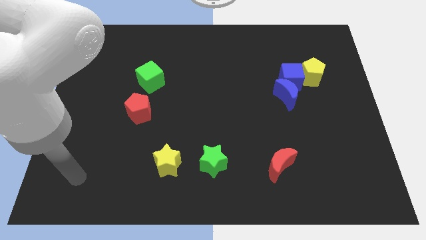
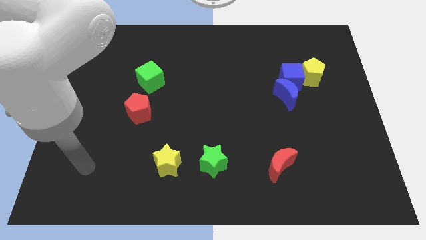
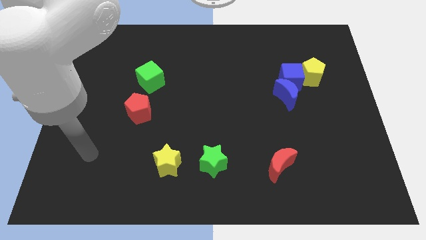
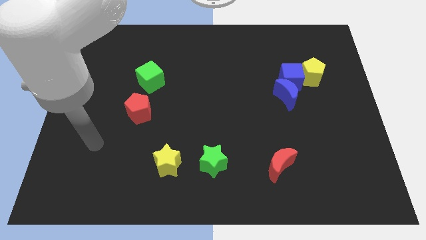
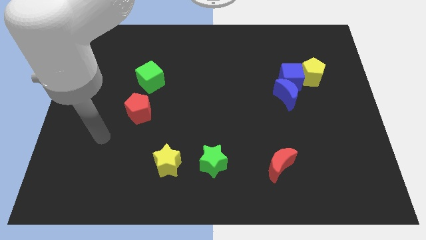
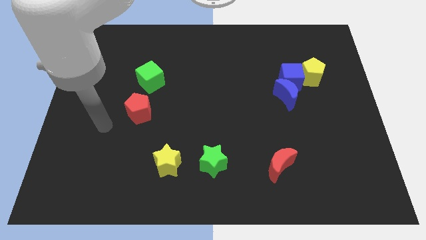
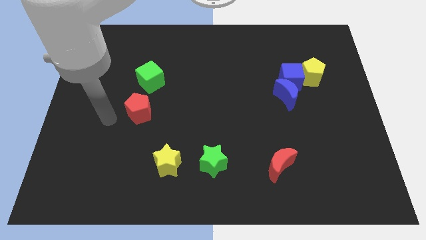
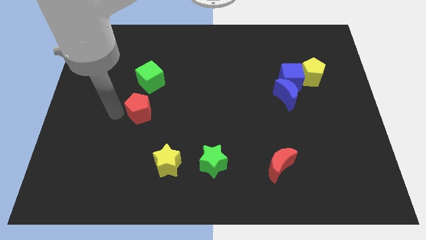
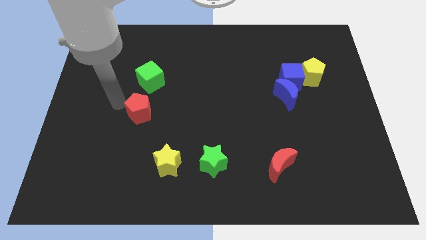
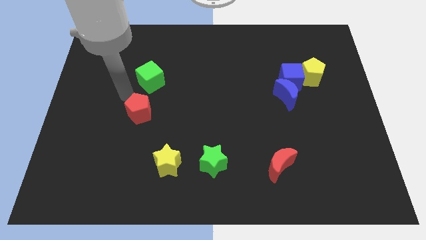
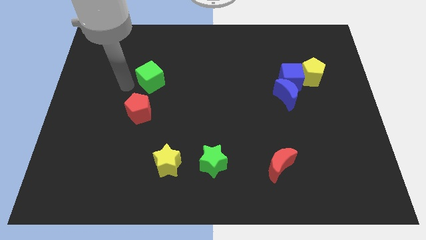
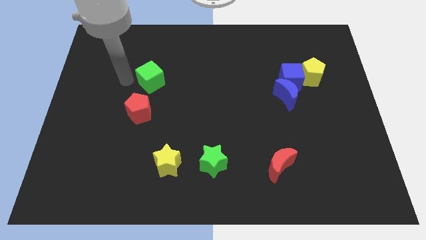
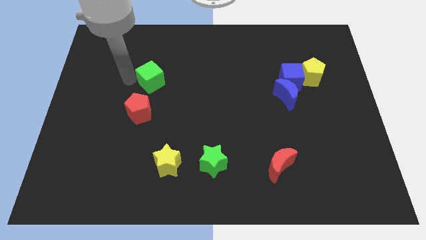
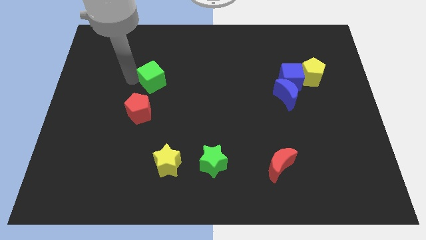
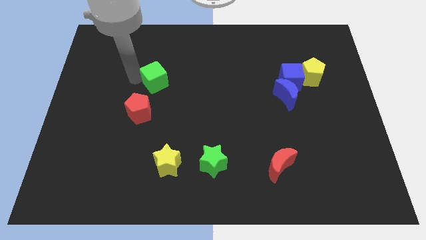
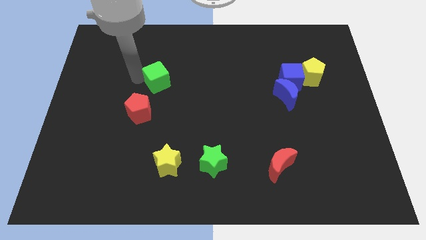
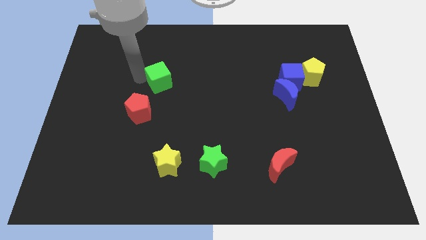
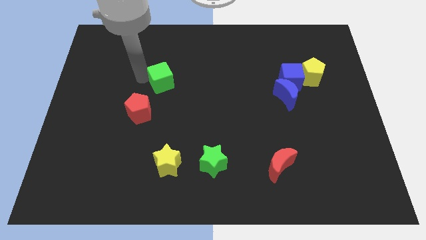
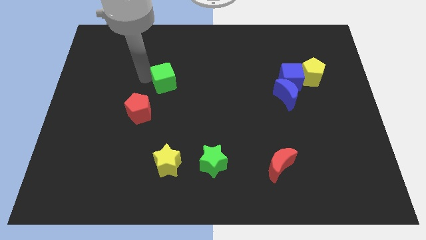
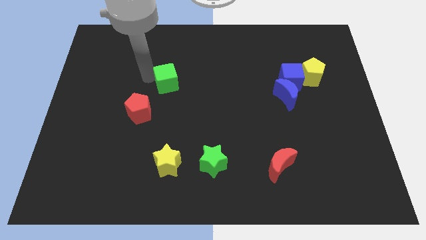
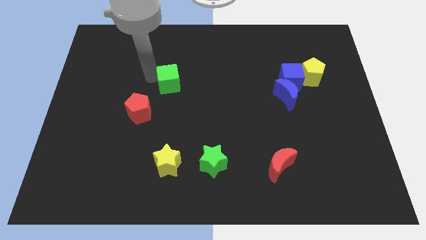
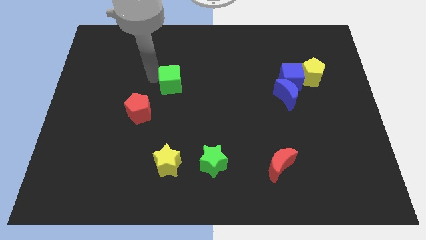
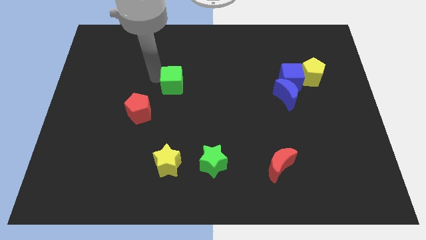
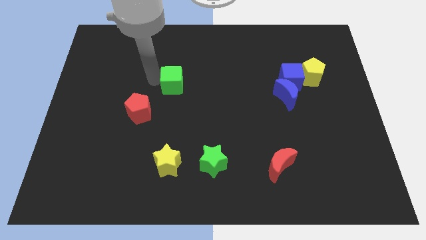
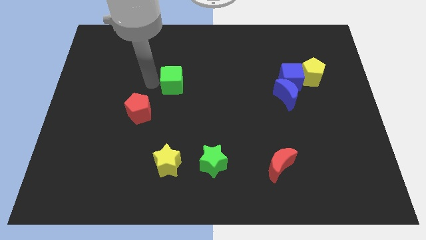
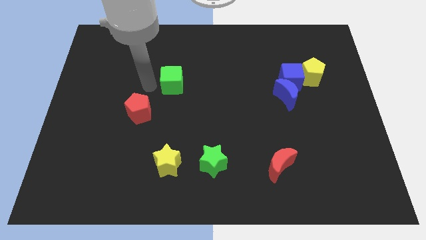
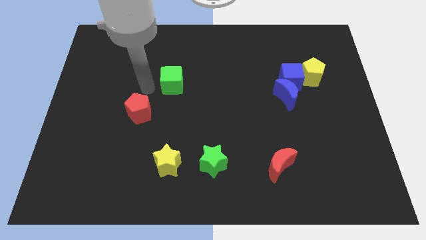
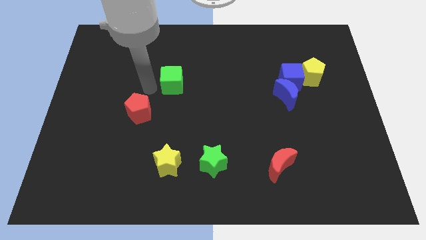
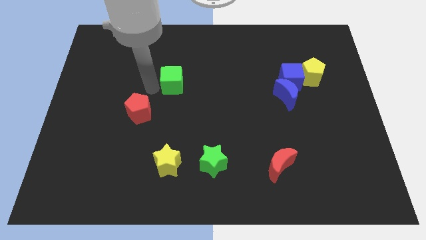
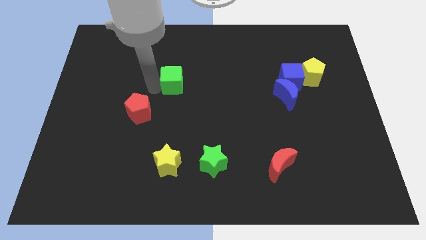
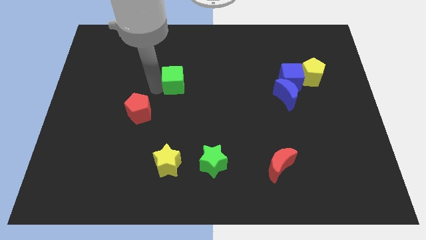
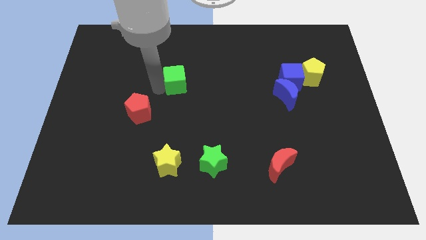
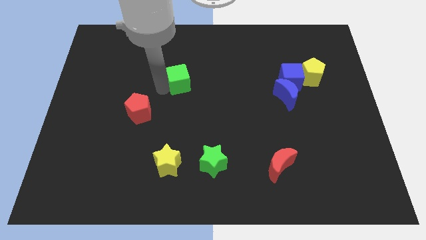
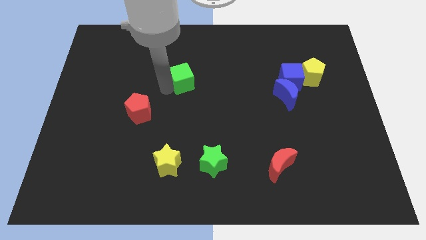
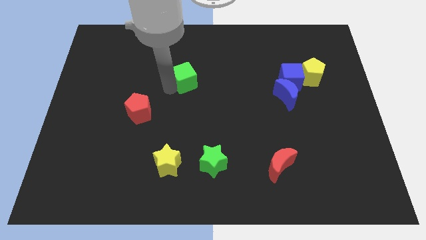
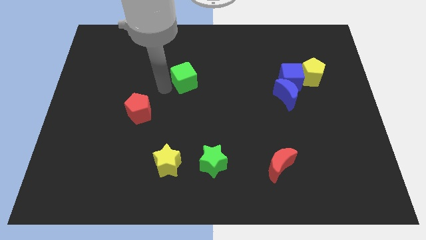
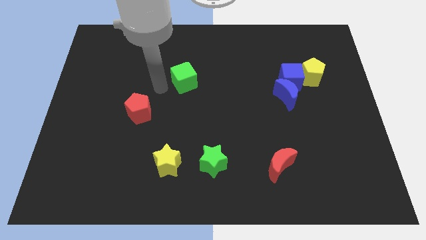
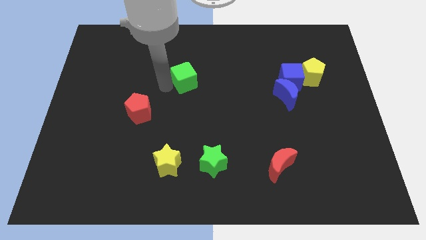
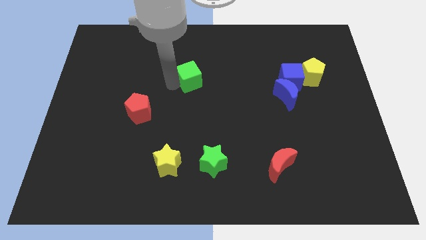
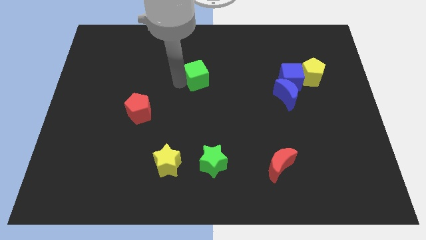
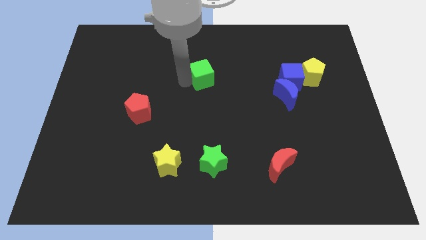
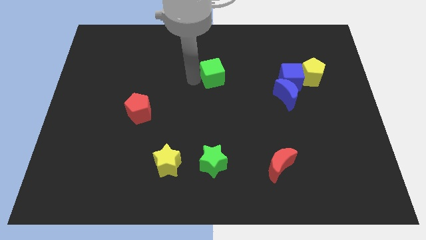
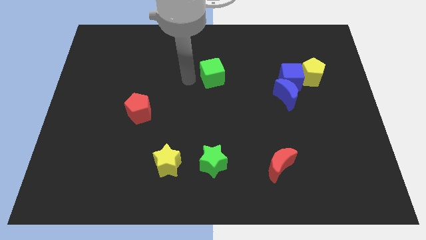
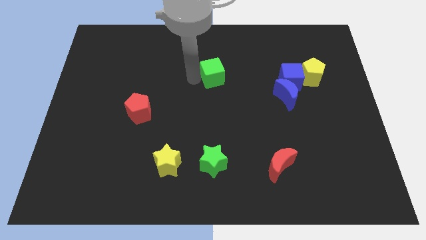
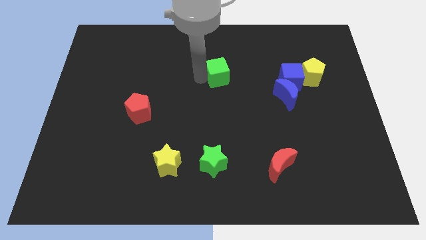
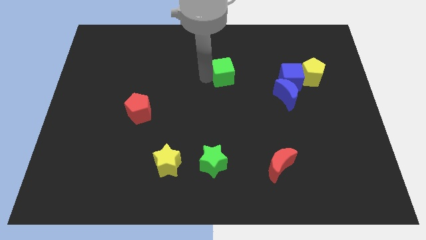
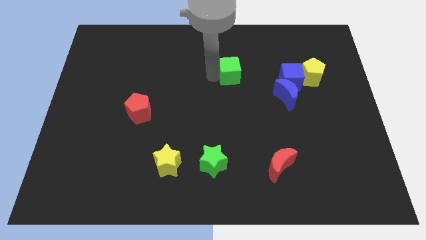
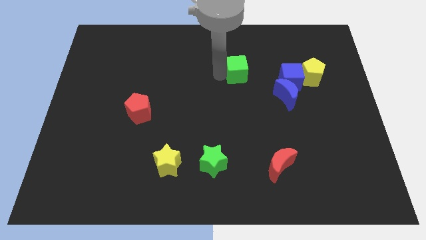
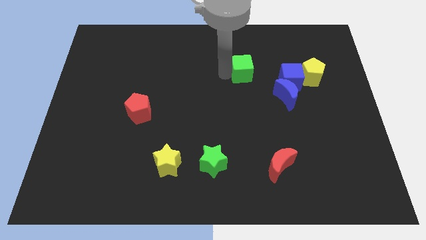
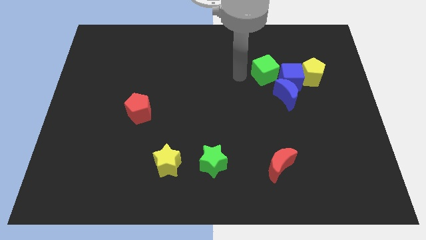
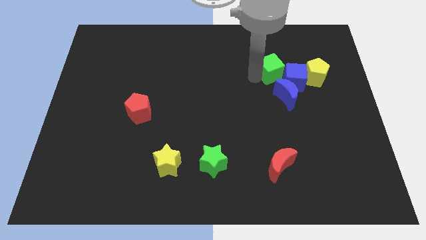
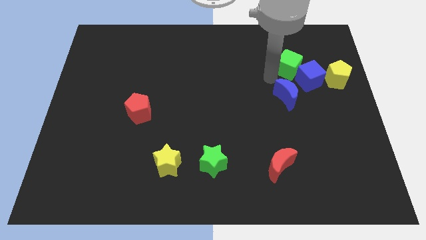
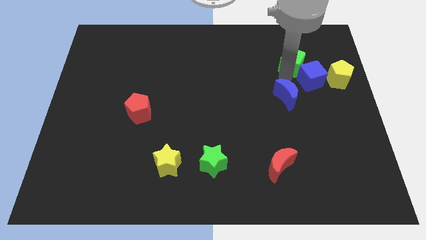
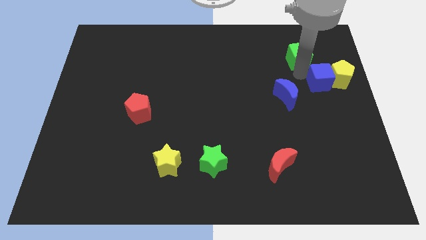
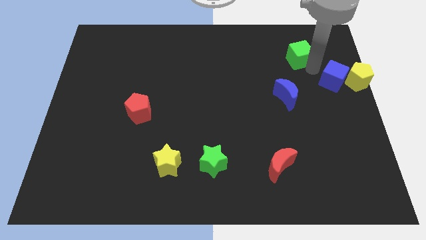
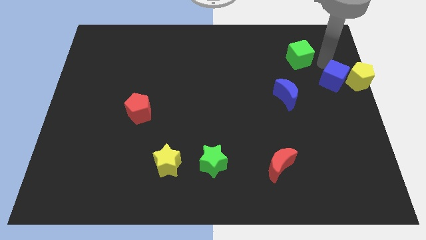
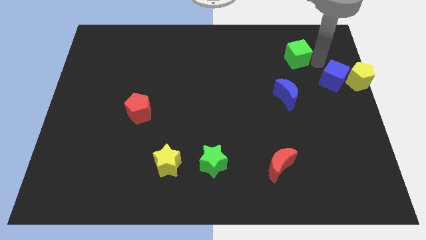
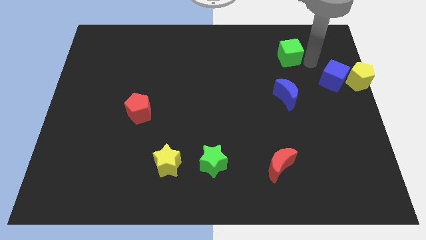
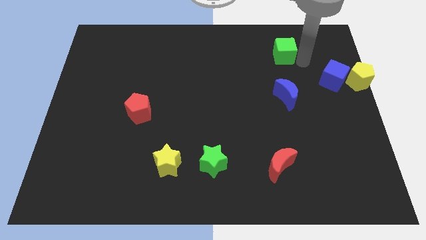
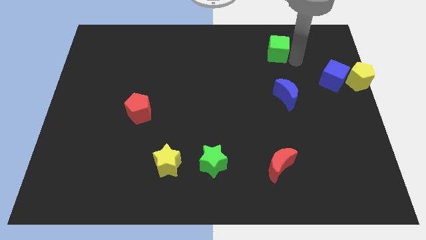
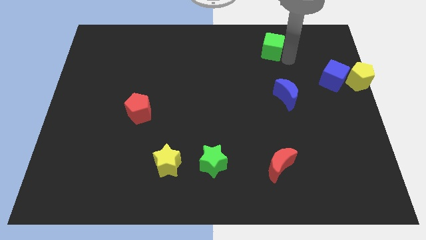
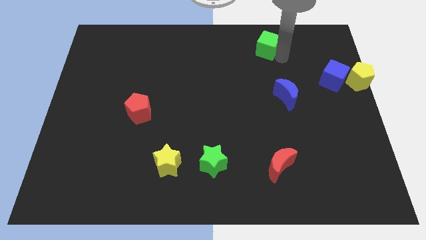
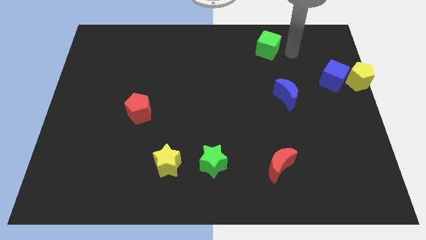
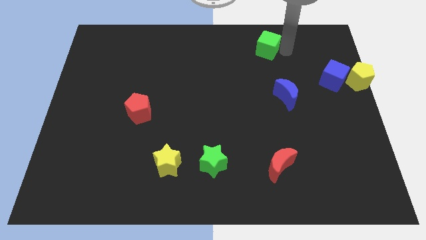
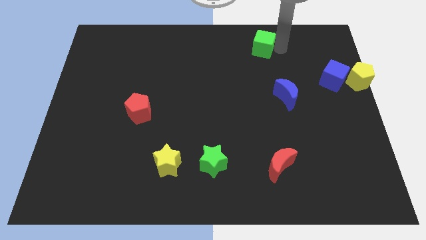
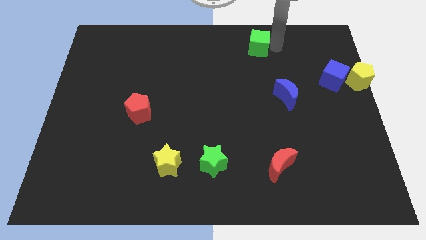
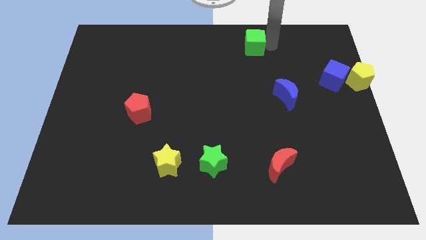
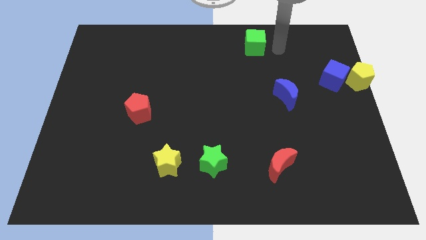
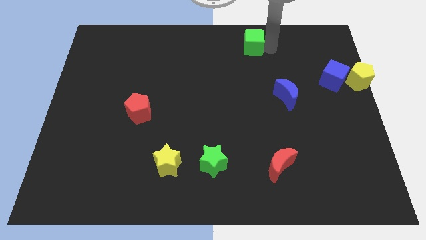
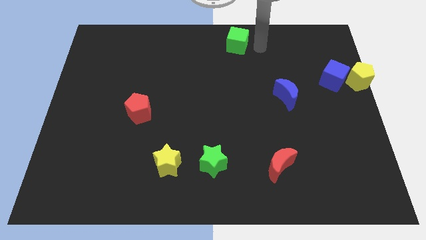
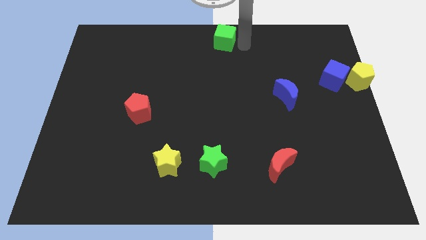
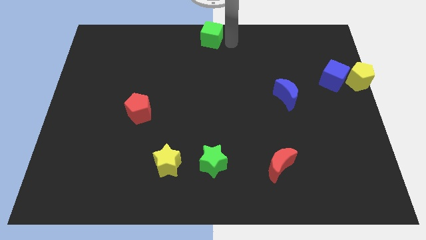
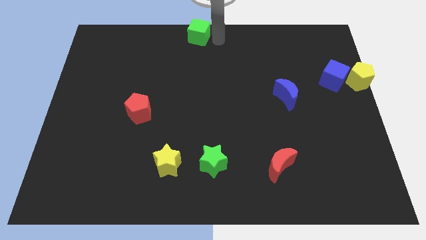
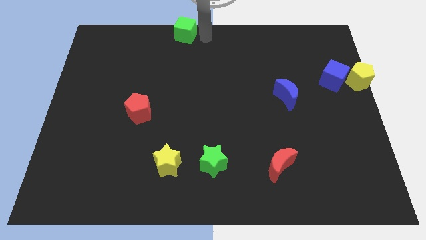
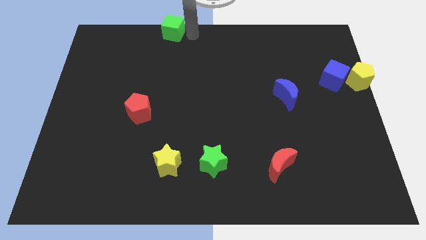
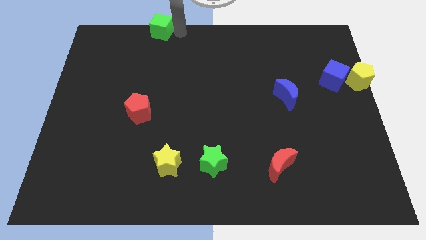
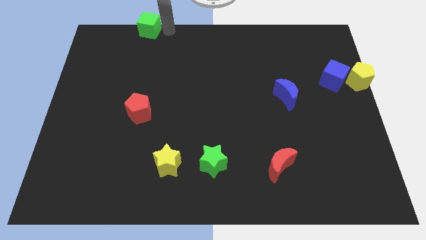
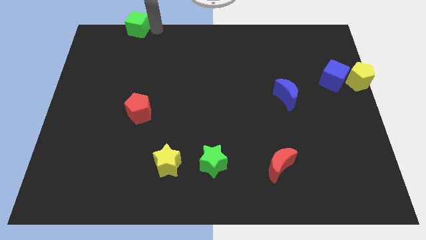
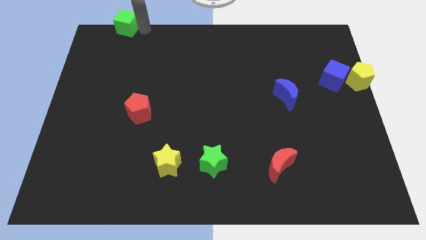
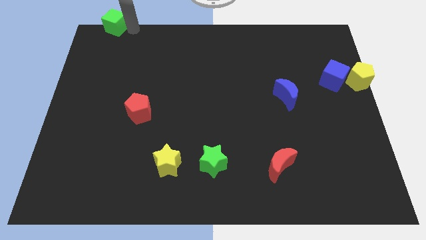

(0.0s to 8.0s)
push the green cube to the top left corner
